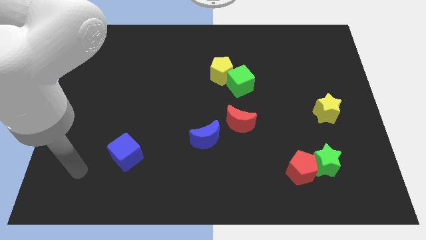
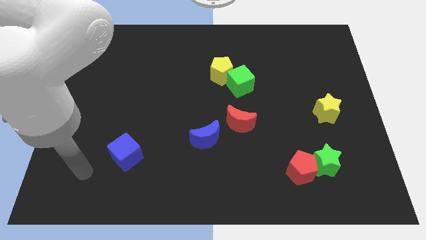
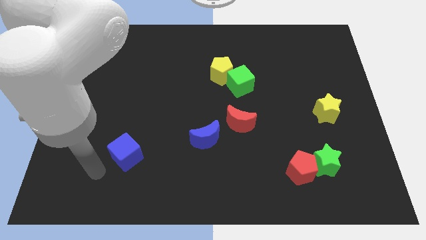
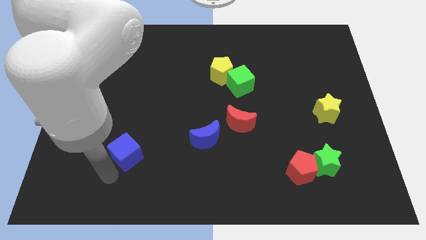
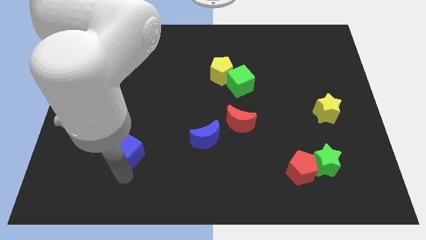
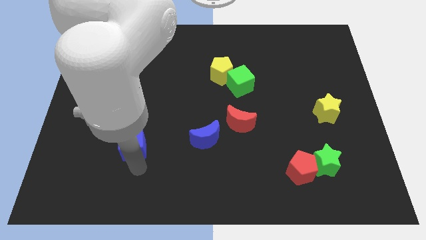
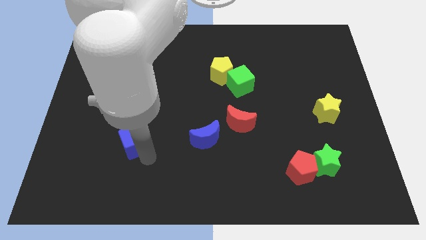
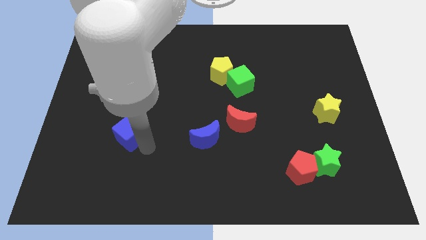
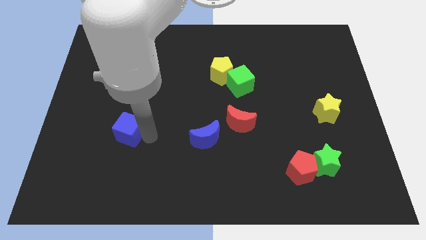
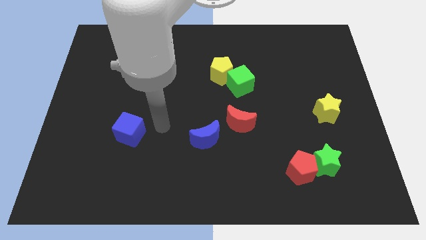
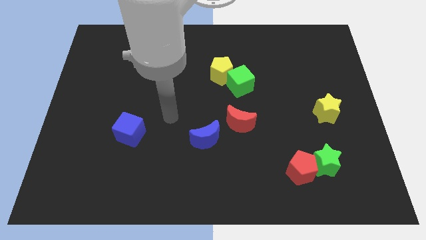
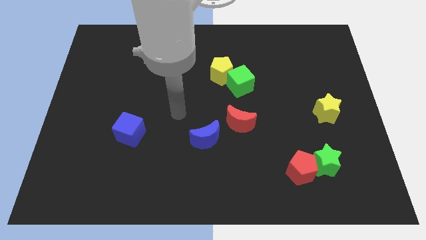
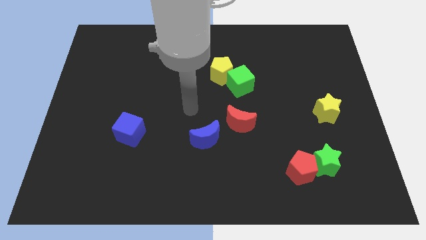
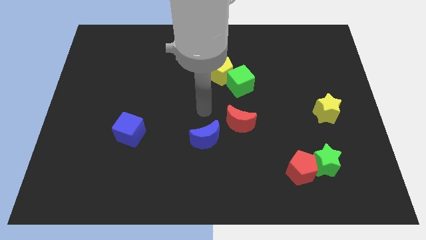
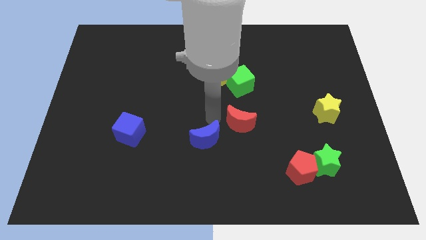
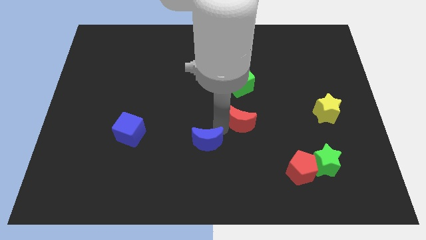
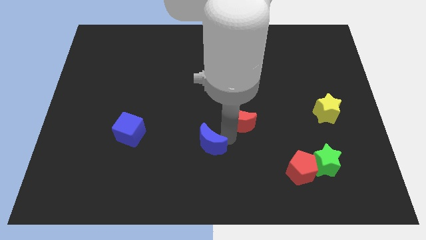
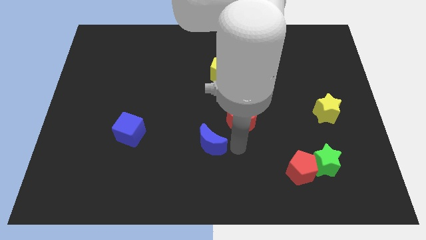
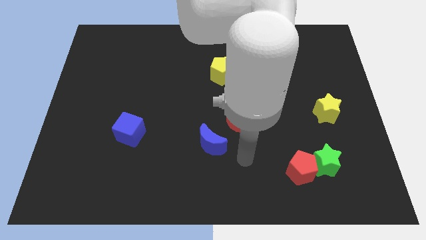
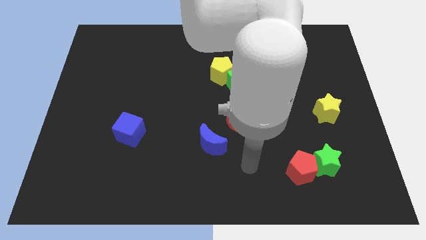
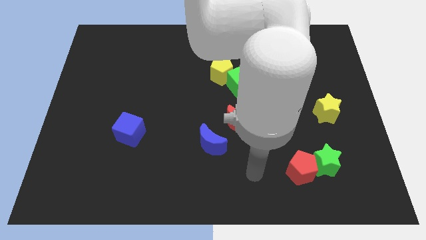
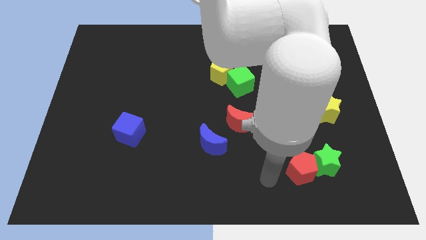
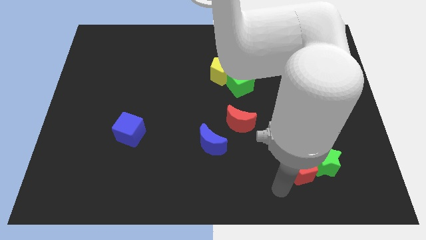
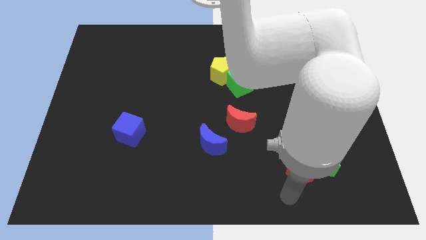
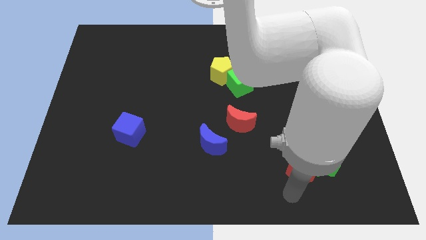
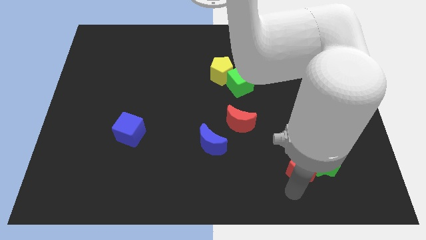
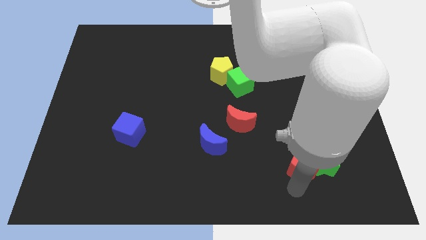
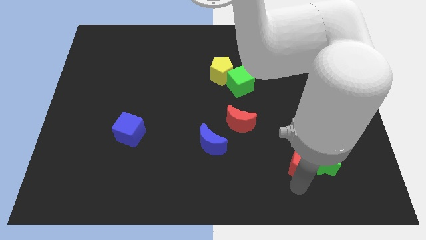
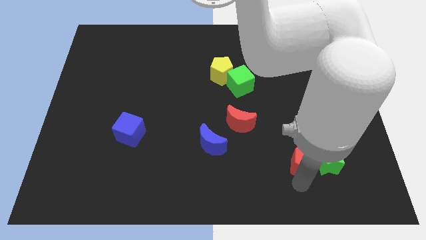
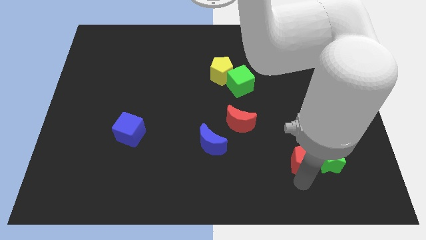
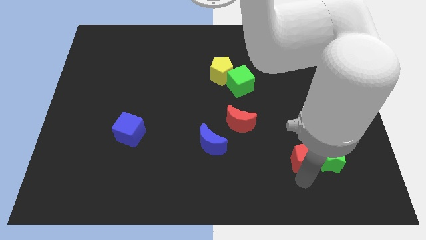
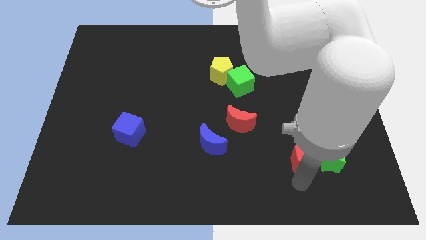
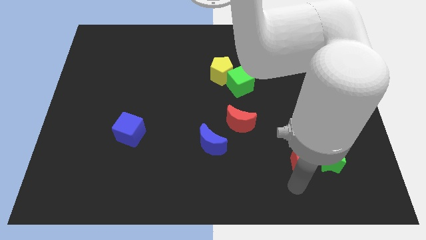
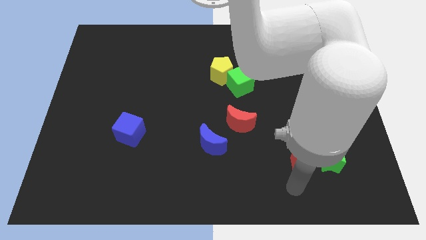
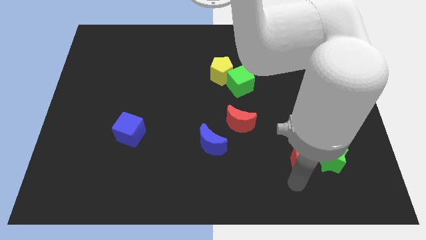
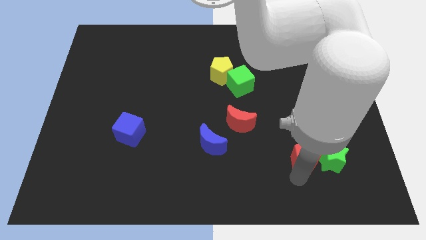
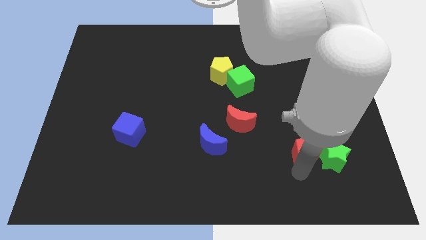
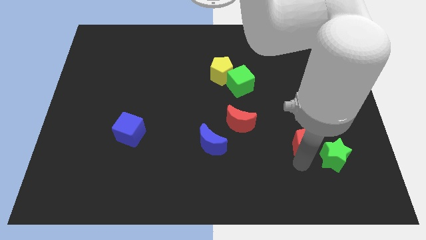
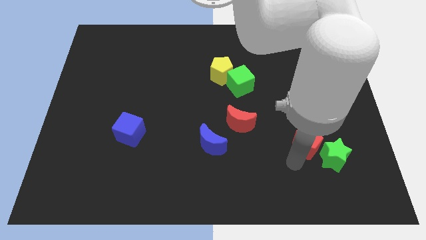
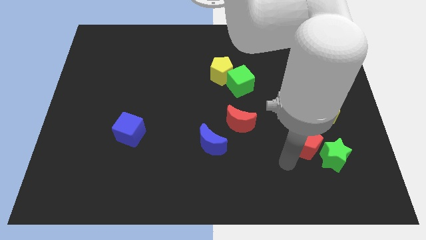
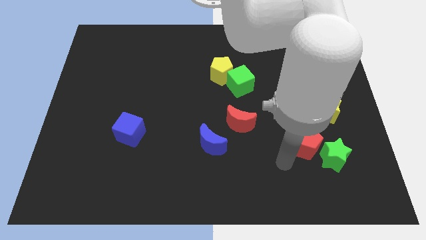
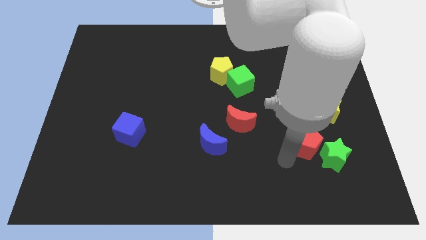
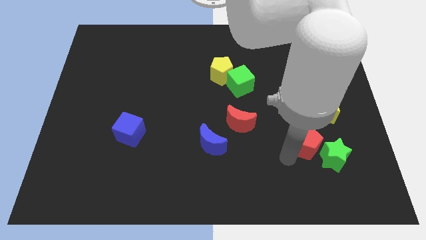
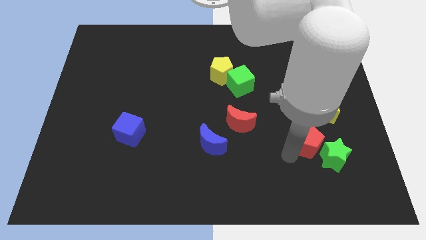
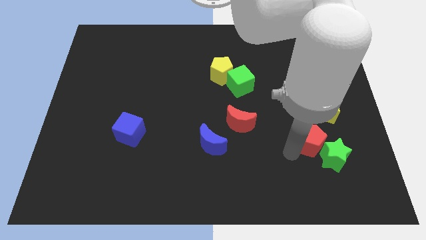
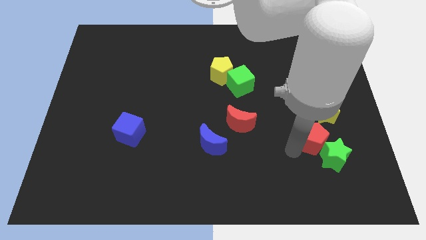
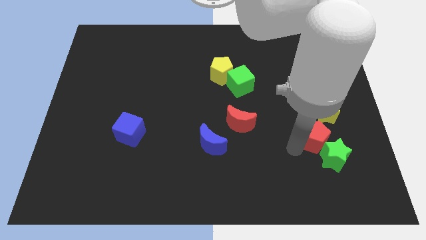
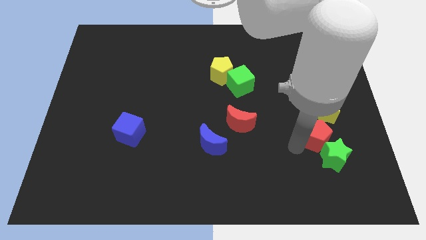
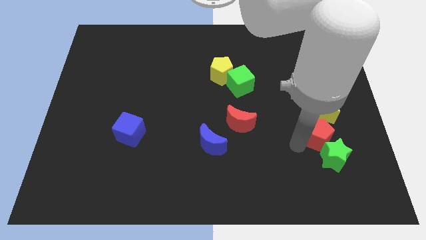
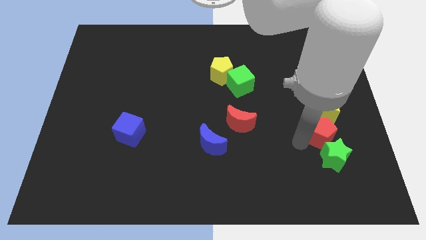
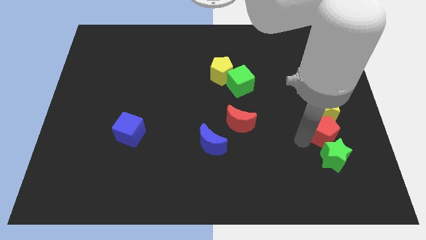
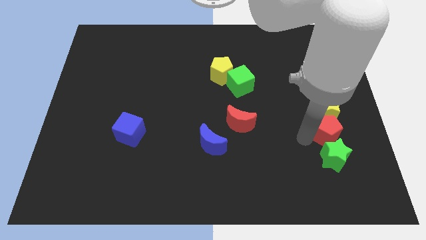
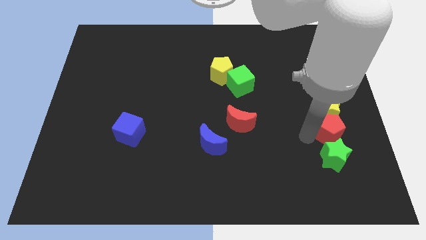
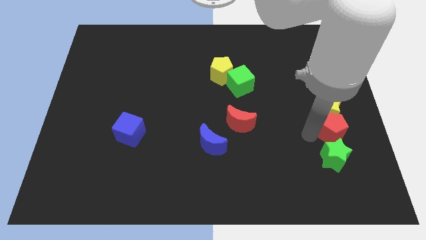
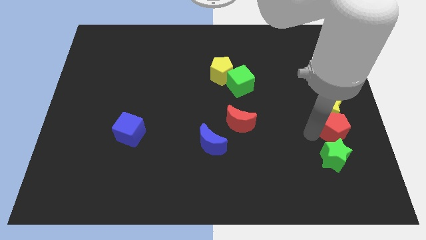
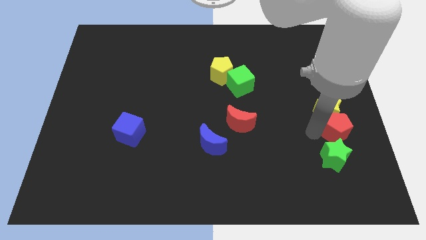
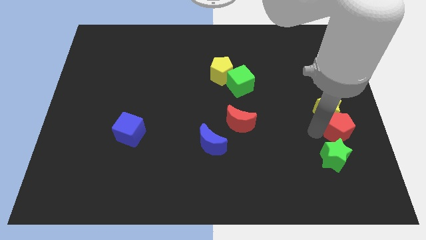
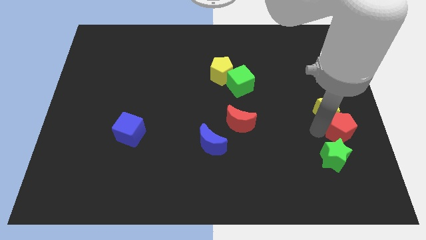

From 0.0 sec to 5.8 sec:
push the red pentagon to the center right
